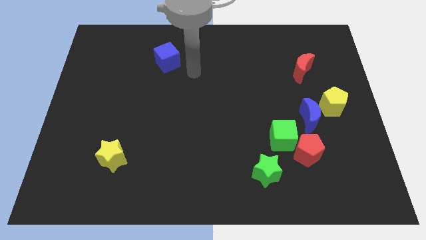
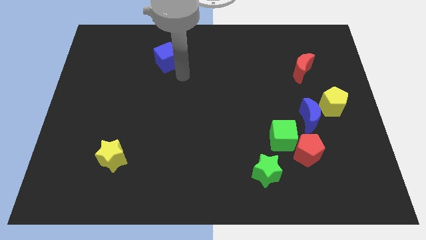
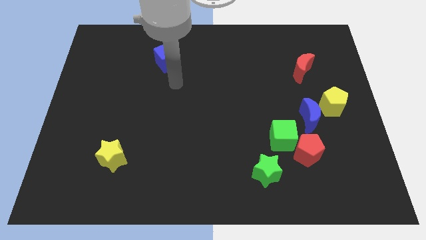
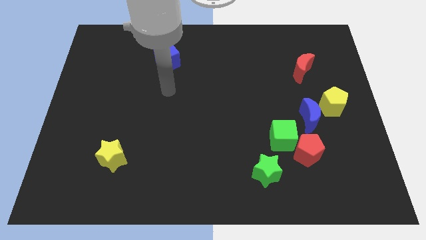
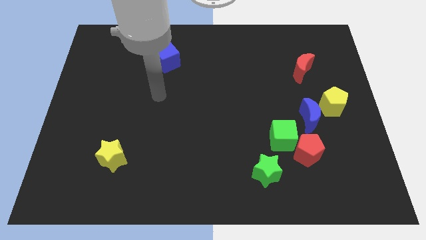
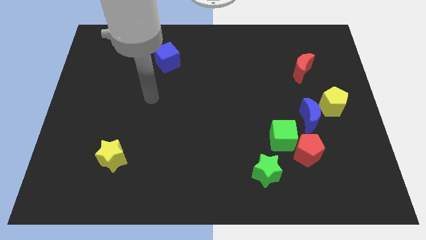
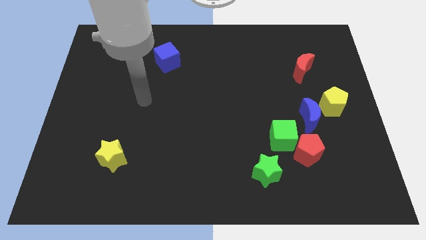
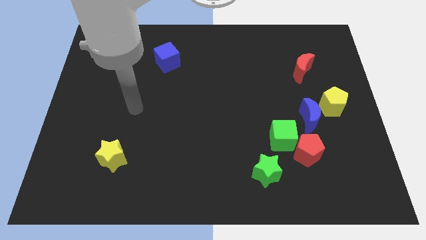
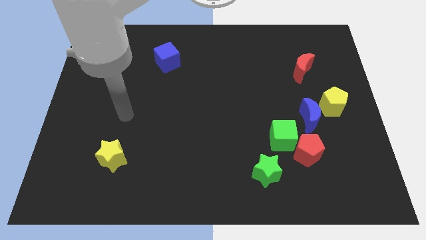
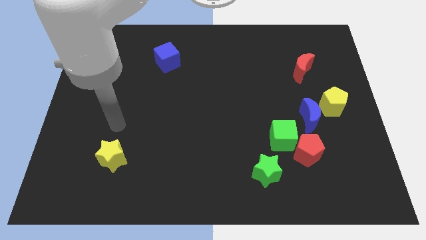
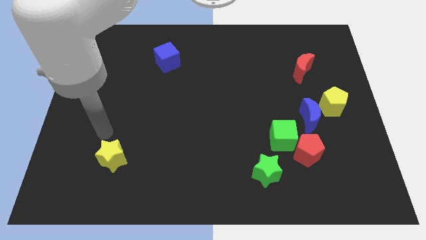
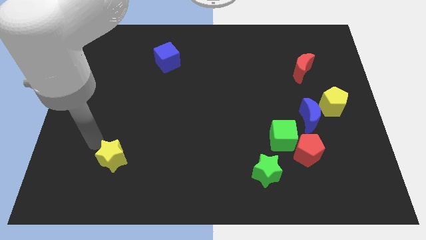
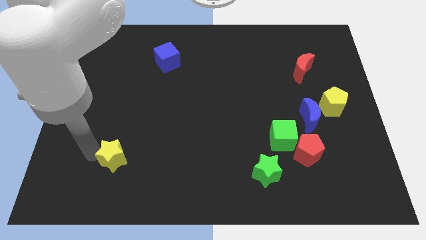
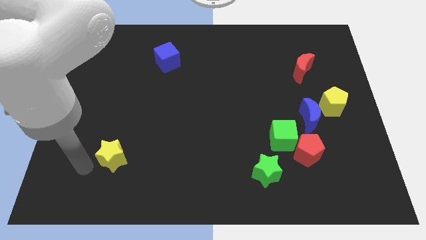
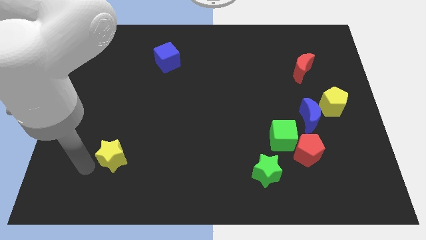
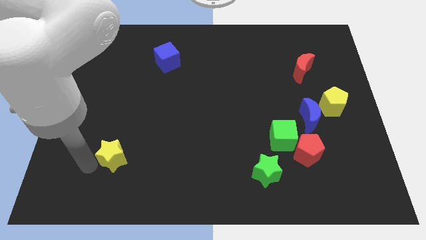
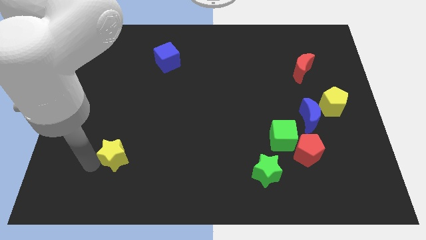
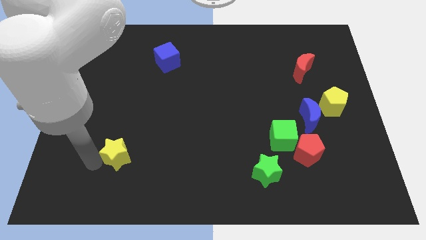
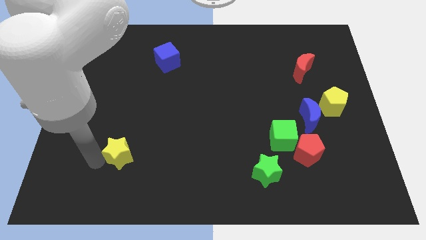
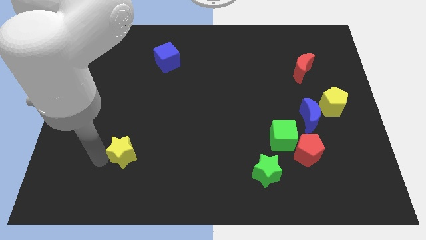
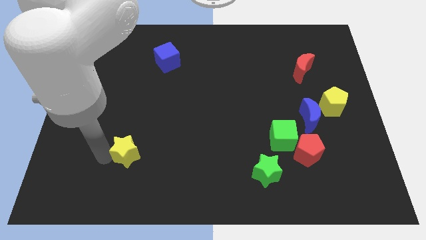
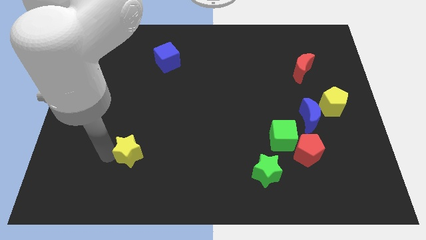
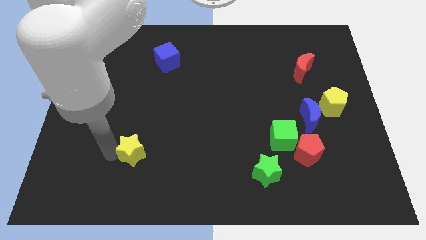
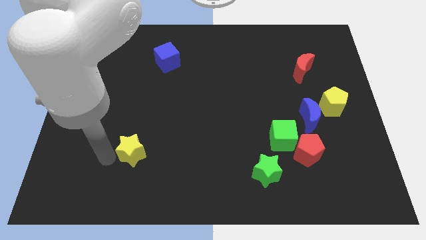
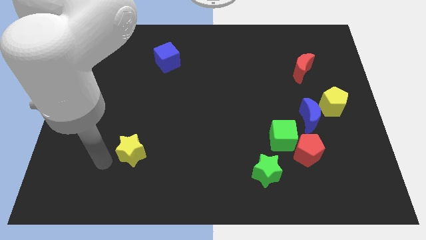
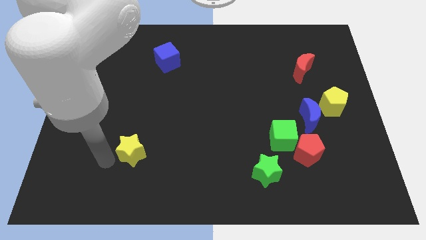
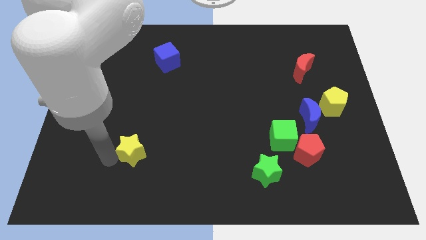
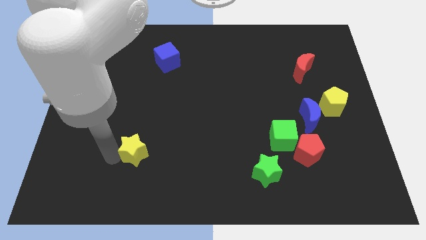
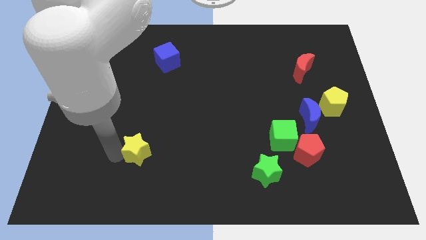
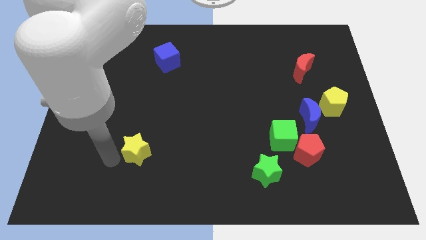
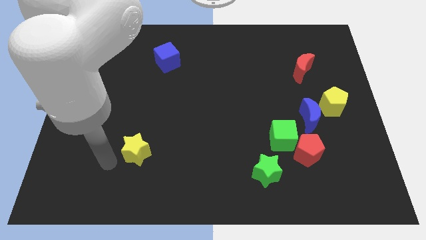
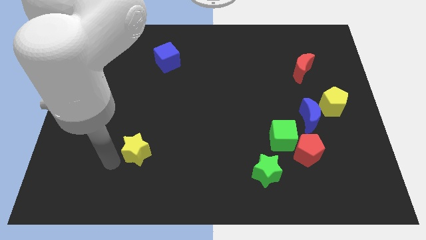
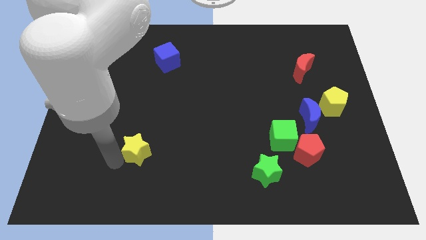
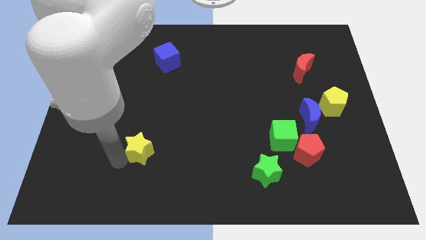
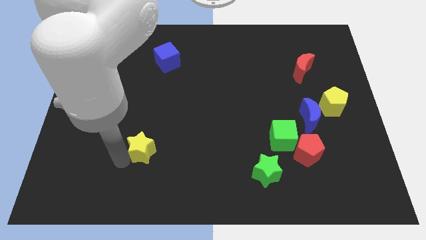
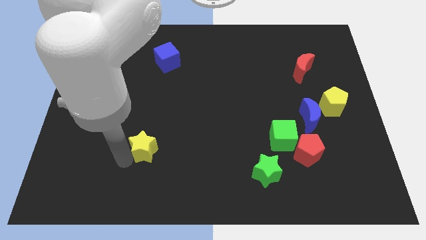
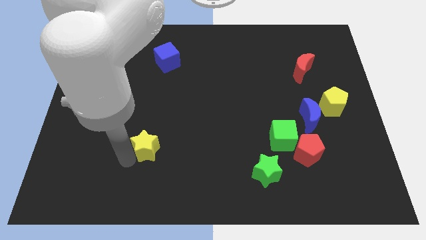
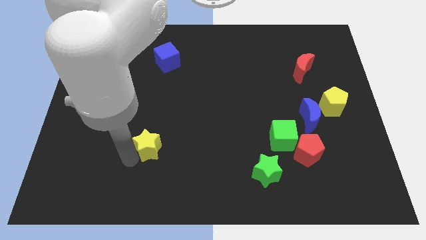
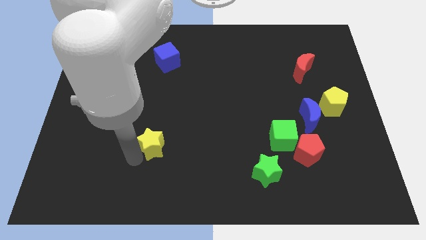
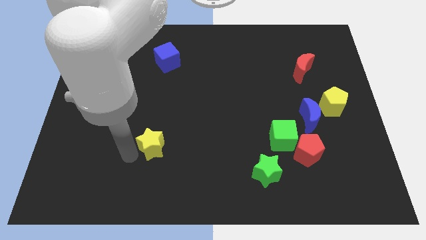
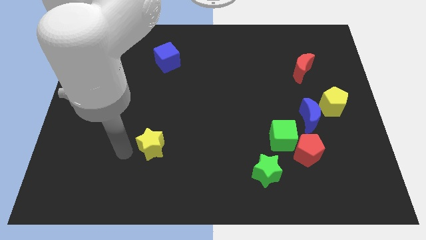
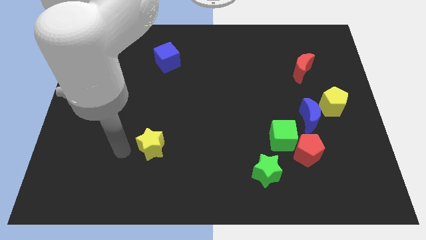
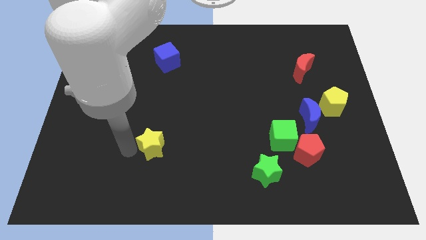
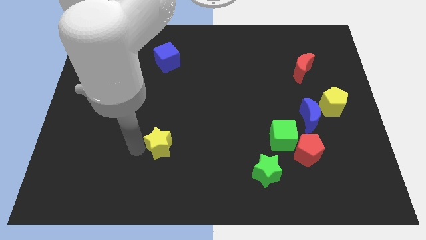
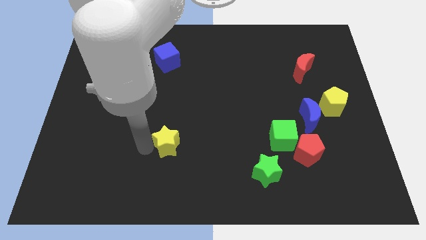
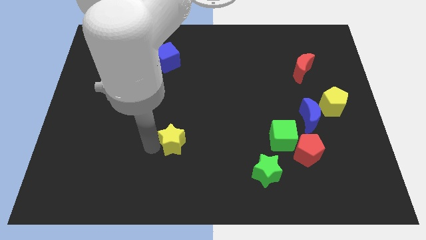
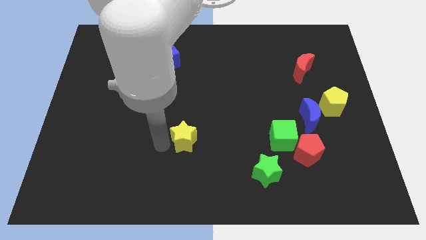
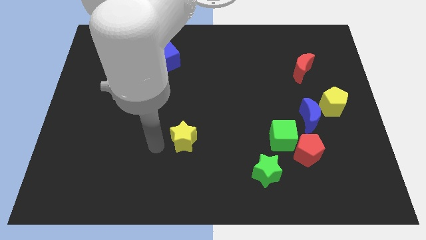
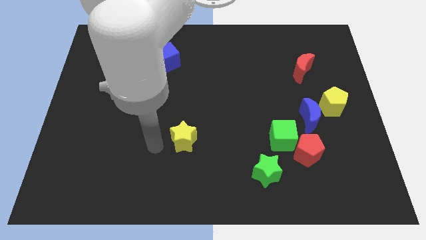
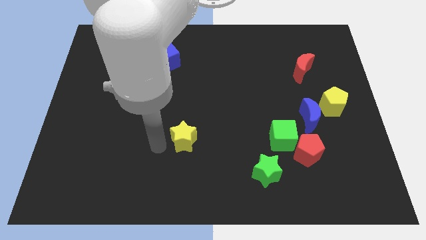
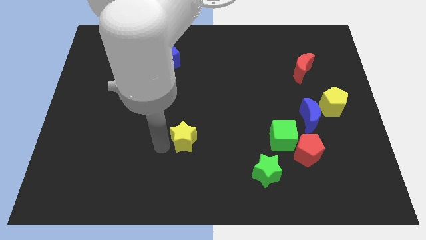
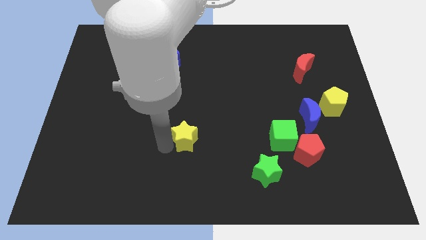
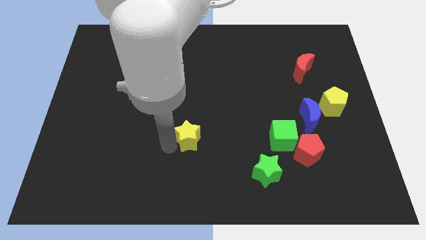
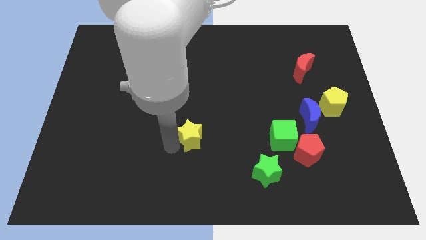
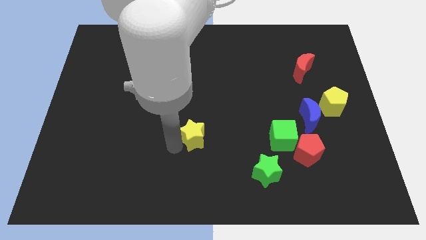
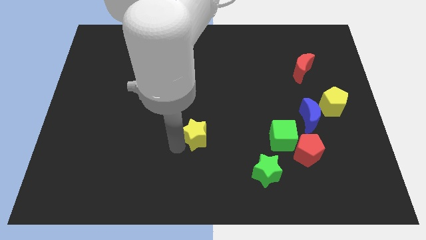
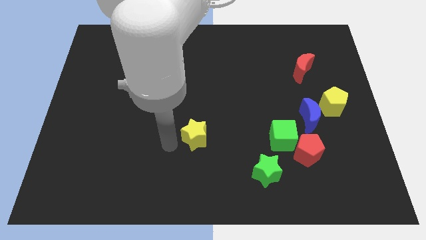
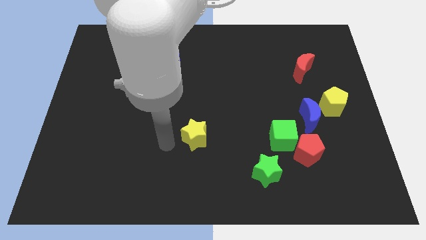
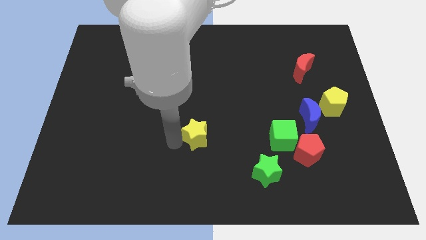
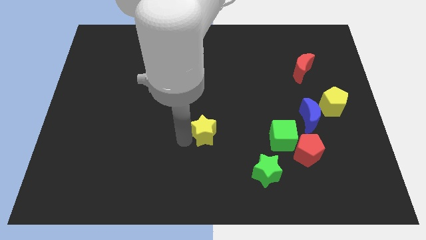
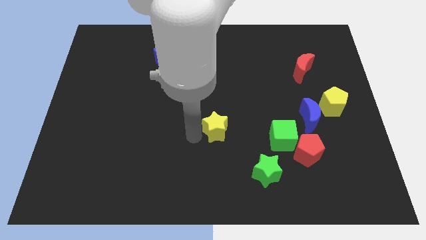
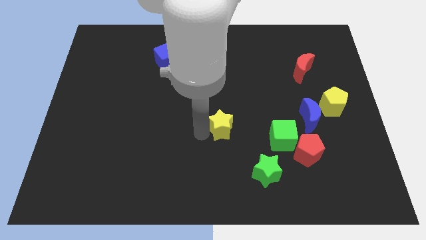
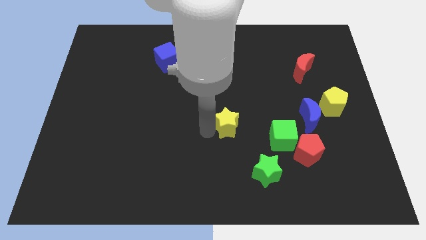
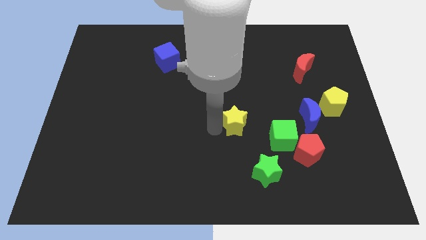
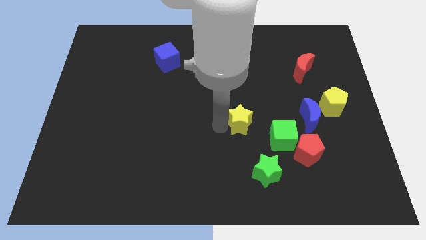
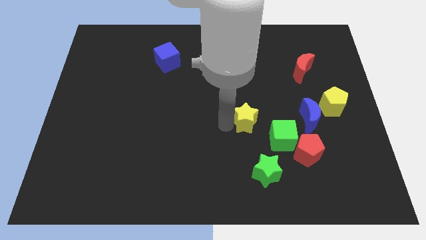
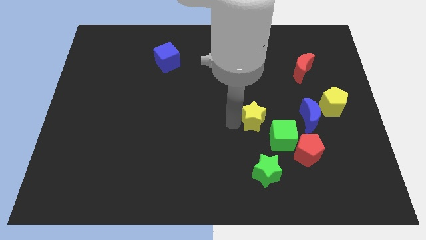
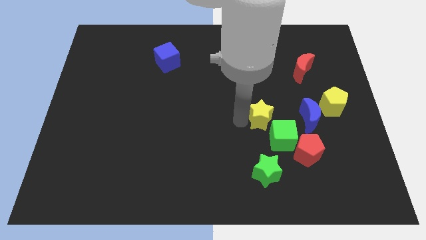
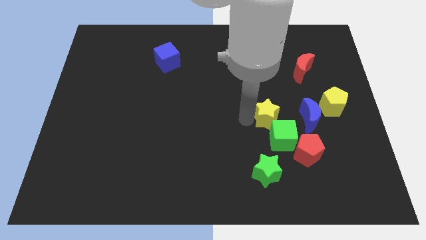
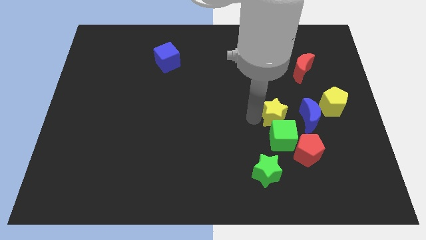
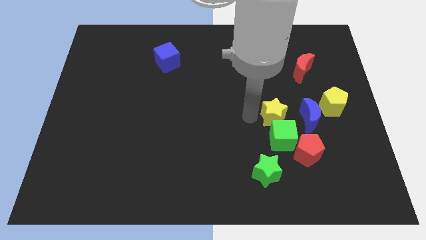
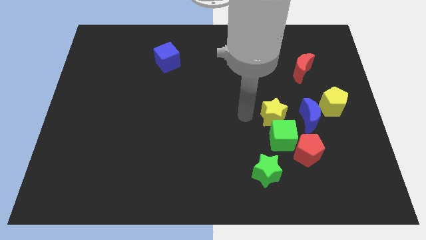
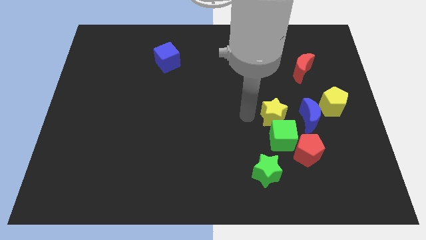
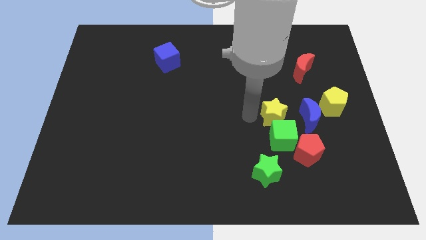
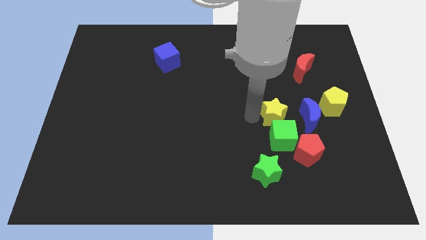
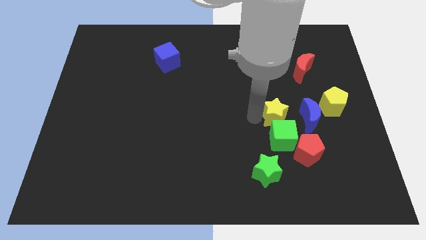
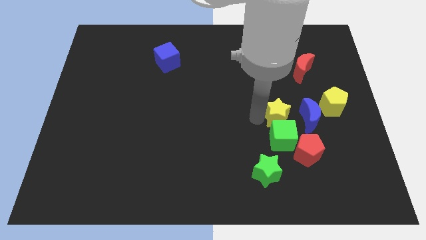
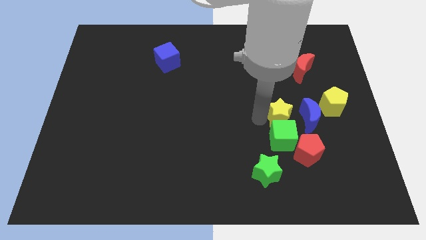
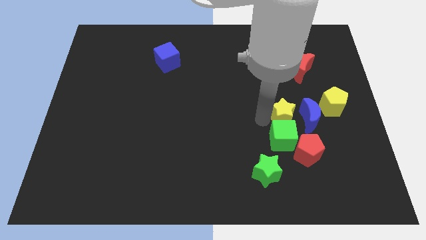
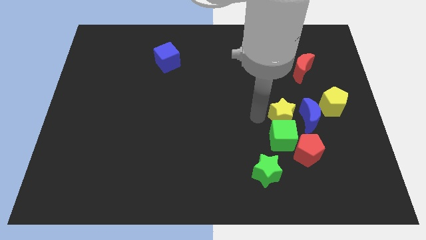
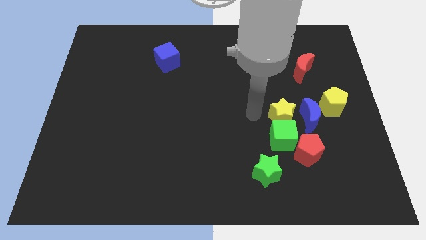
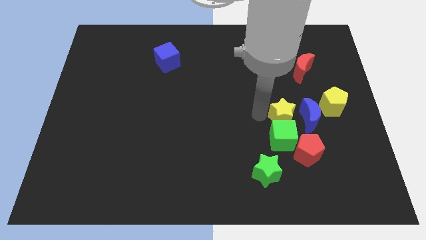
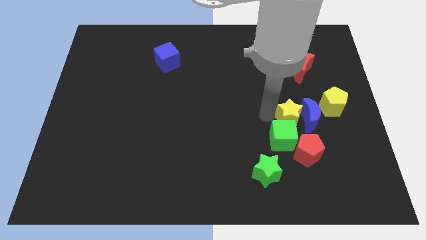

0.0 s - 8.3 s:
slide the yellow star close to the blue moon
